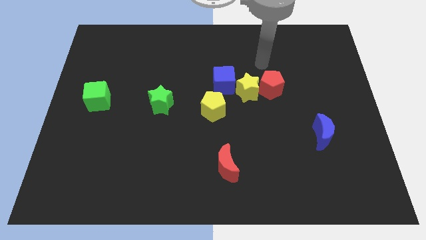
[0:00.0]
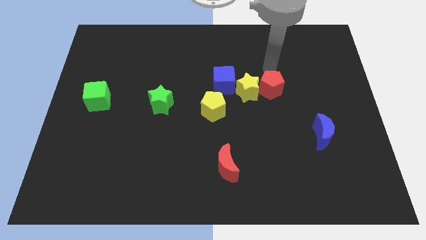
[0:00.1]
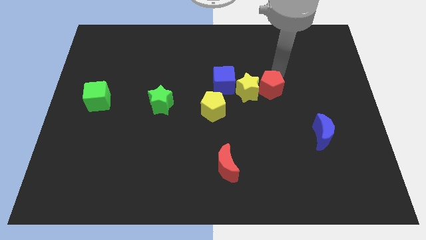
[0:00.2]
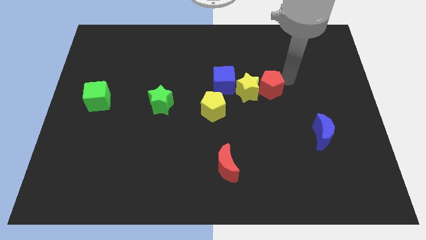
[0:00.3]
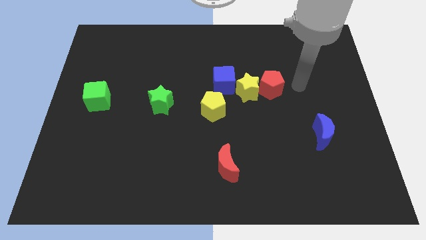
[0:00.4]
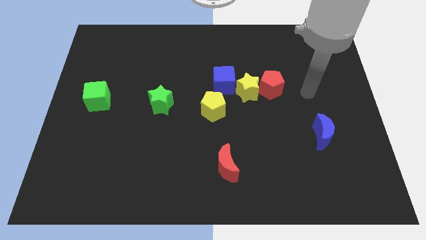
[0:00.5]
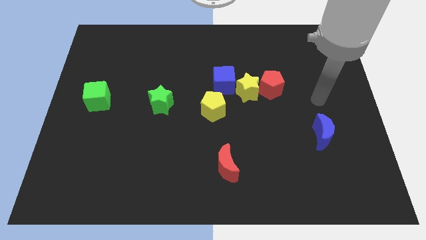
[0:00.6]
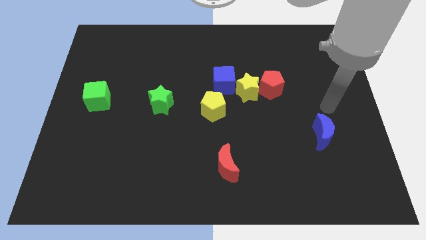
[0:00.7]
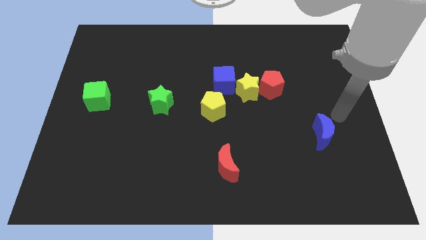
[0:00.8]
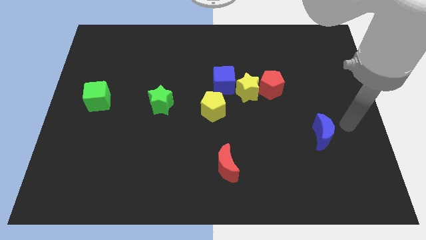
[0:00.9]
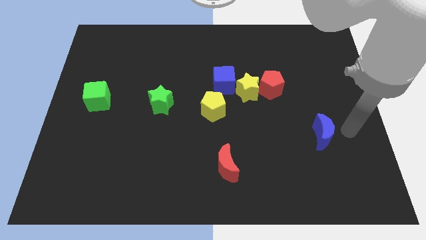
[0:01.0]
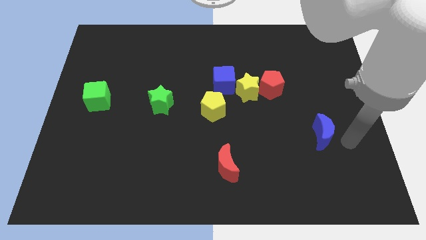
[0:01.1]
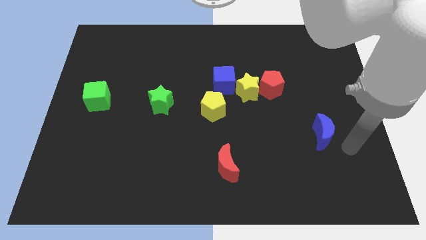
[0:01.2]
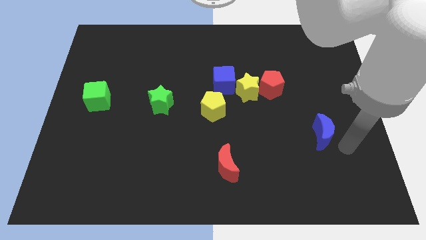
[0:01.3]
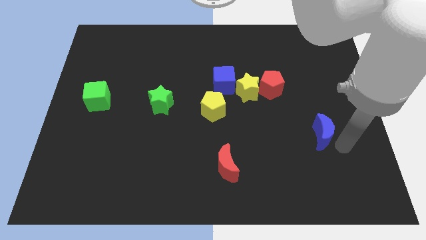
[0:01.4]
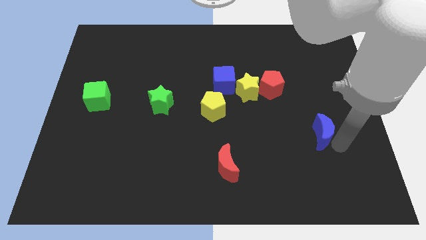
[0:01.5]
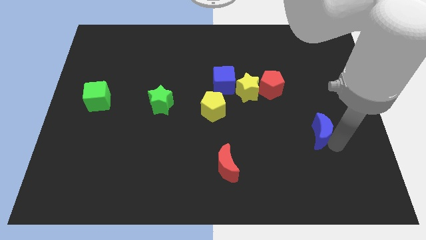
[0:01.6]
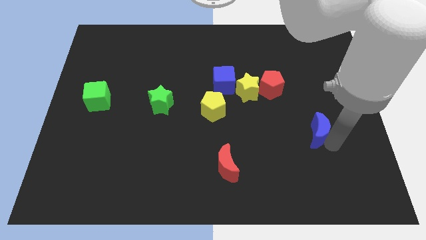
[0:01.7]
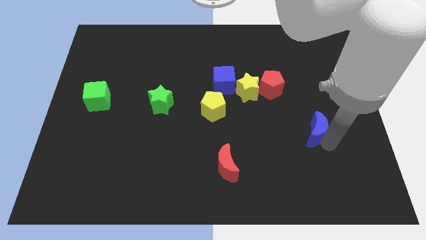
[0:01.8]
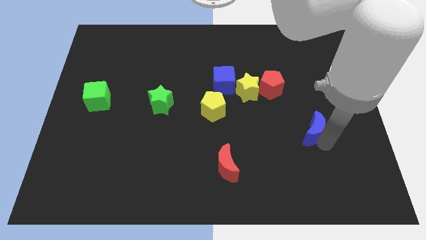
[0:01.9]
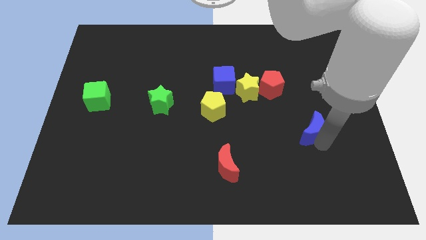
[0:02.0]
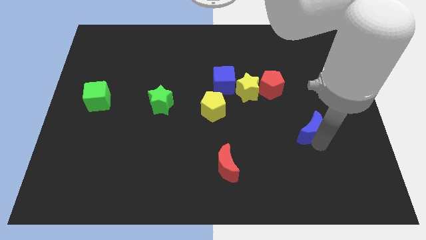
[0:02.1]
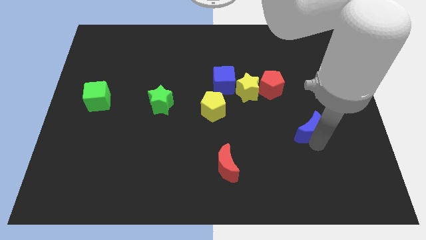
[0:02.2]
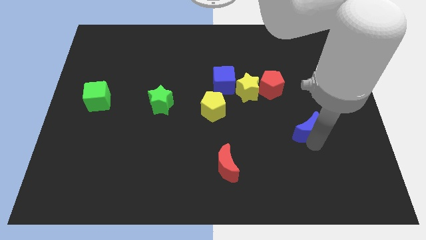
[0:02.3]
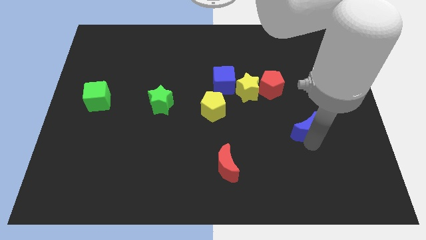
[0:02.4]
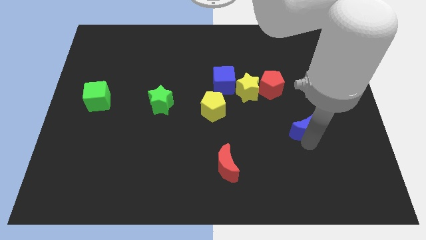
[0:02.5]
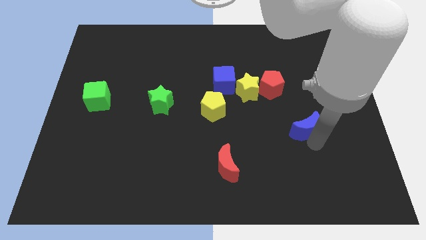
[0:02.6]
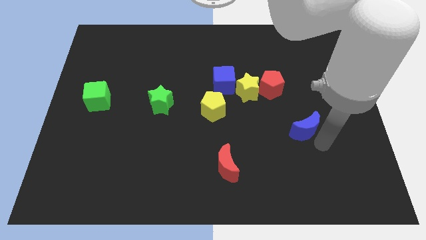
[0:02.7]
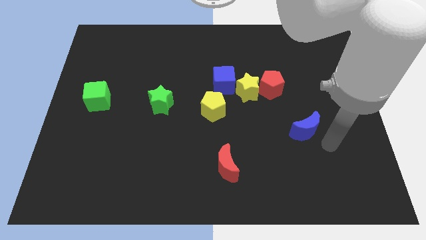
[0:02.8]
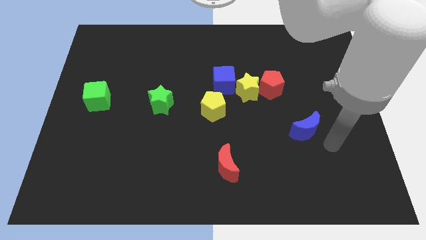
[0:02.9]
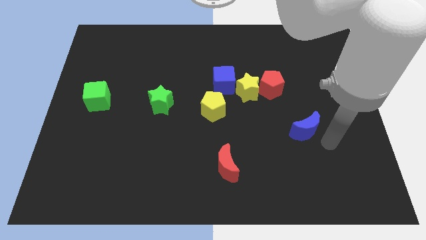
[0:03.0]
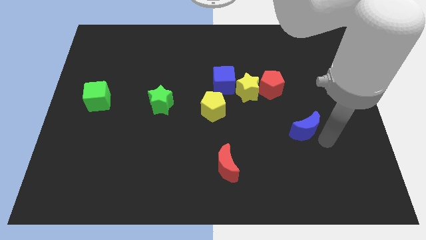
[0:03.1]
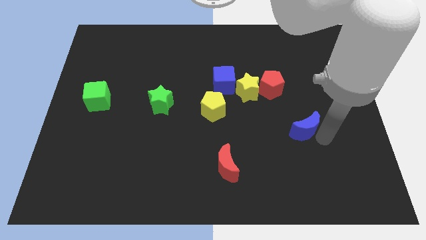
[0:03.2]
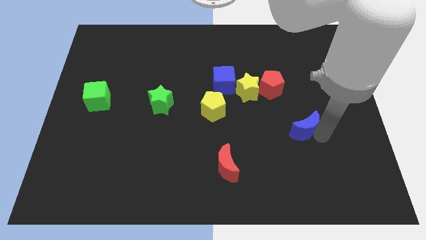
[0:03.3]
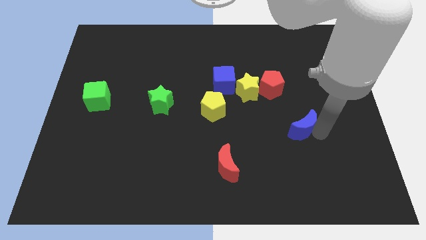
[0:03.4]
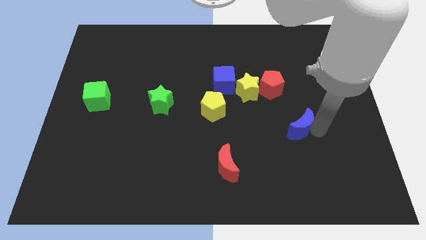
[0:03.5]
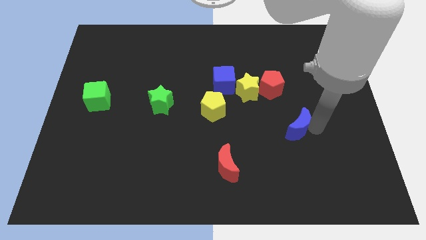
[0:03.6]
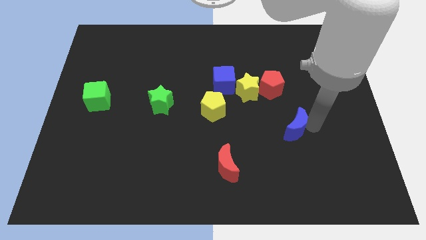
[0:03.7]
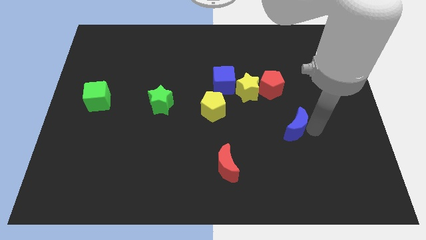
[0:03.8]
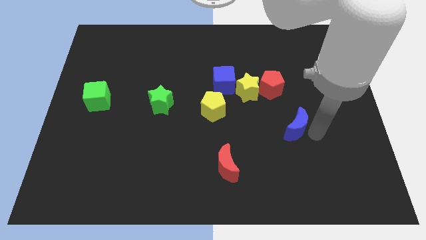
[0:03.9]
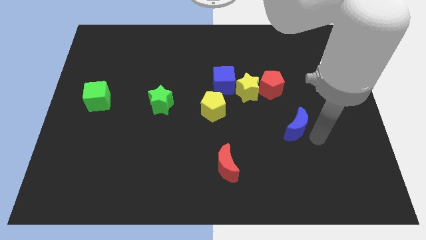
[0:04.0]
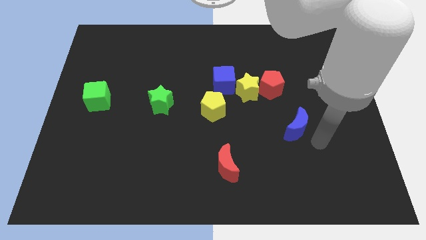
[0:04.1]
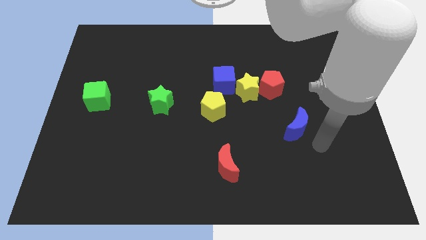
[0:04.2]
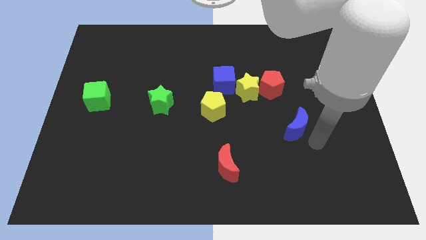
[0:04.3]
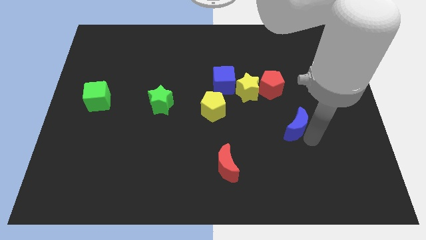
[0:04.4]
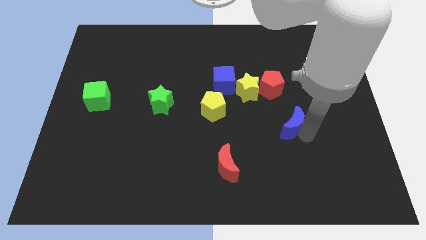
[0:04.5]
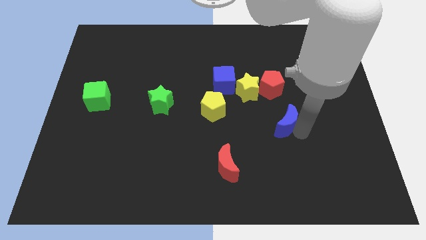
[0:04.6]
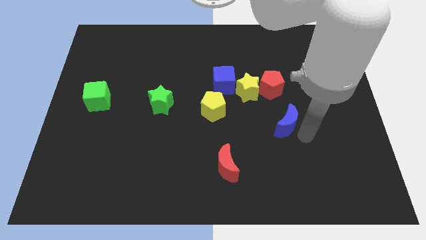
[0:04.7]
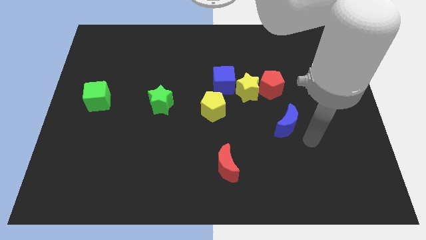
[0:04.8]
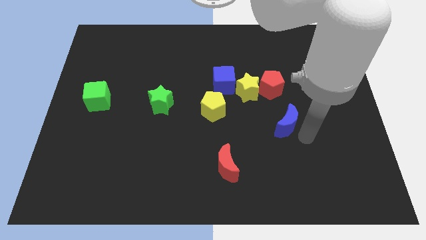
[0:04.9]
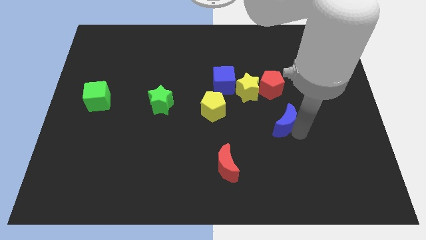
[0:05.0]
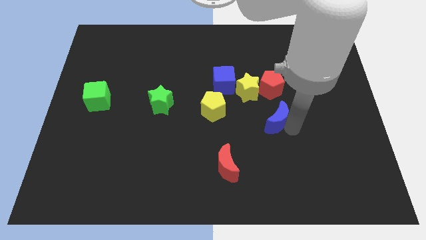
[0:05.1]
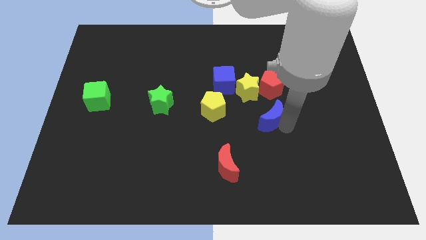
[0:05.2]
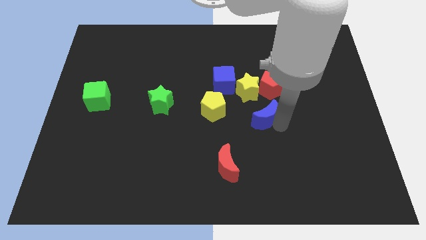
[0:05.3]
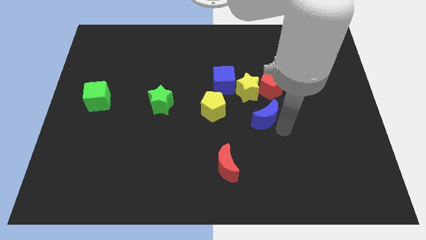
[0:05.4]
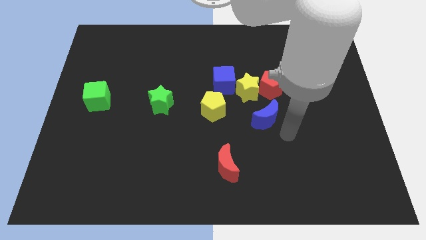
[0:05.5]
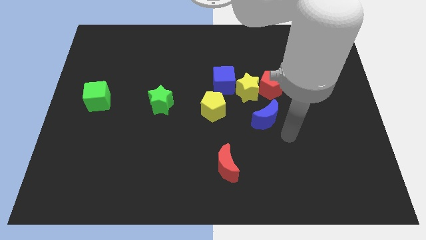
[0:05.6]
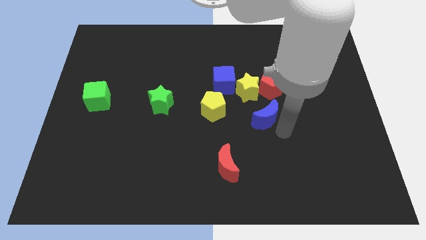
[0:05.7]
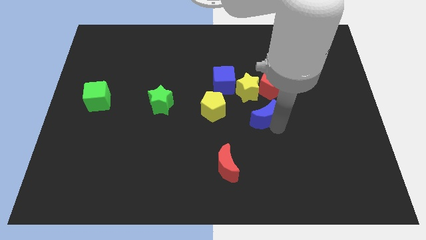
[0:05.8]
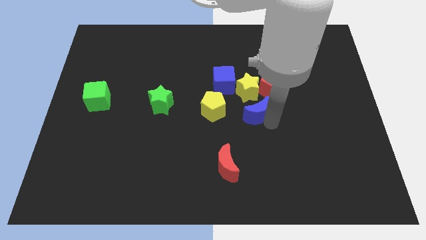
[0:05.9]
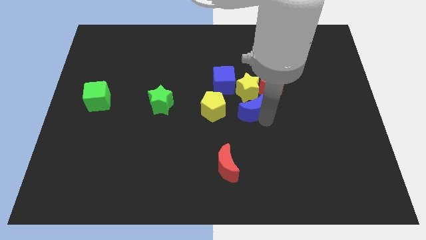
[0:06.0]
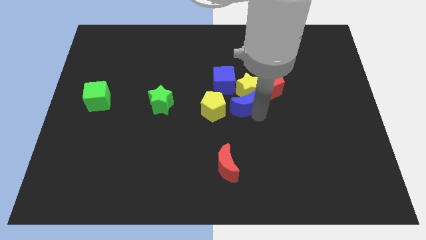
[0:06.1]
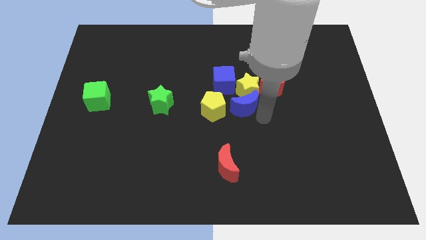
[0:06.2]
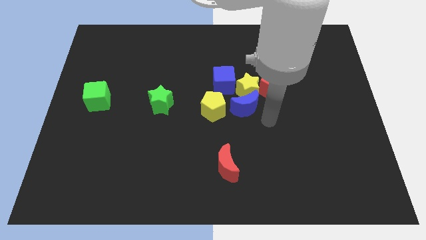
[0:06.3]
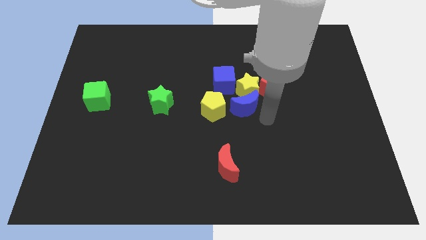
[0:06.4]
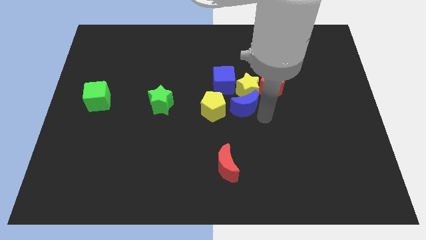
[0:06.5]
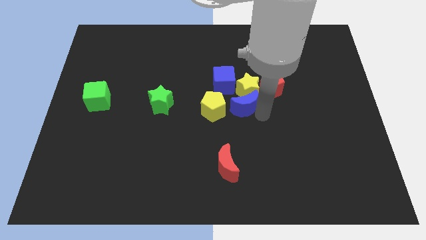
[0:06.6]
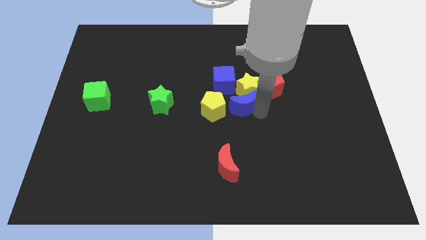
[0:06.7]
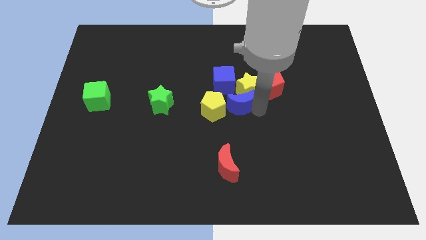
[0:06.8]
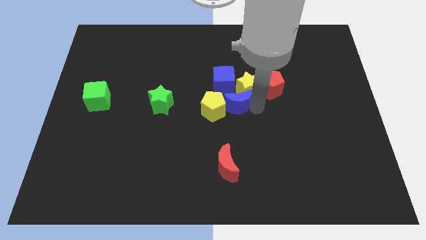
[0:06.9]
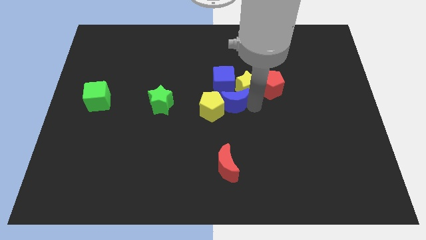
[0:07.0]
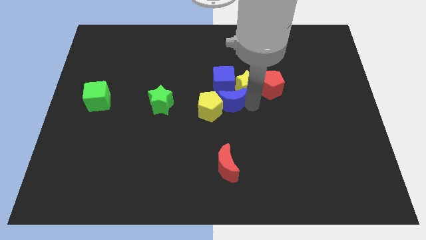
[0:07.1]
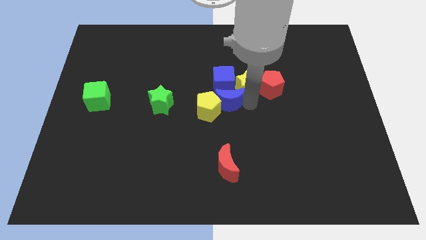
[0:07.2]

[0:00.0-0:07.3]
move the blue moon to the blue cube
